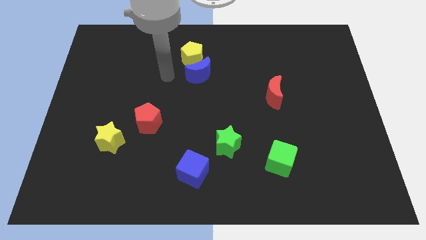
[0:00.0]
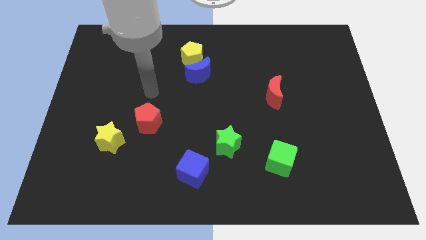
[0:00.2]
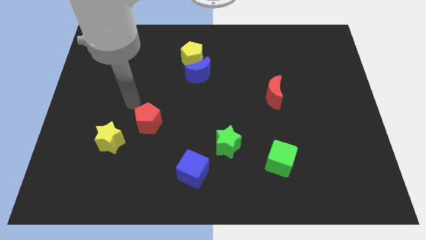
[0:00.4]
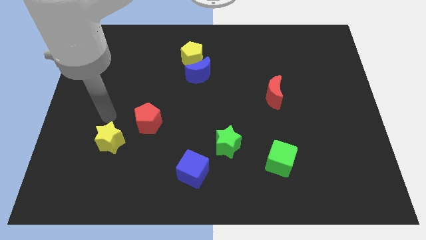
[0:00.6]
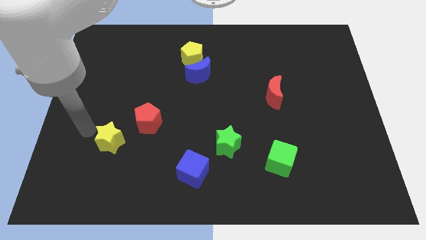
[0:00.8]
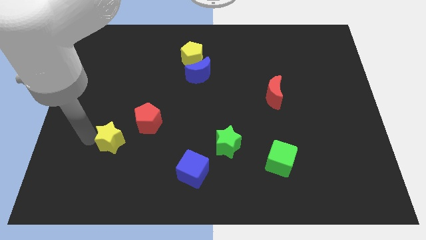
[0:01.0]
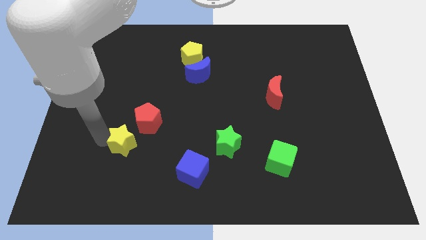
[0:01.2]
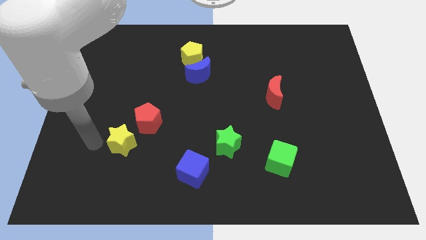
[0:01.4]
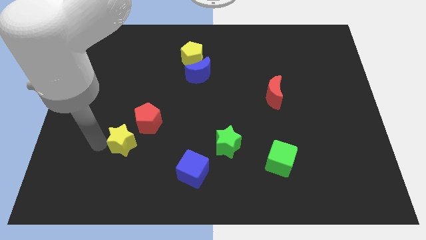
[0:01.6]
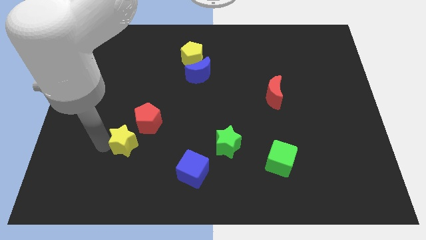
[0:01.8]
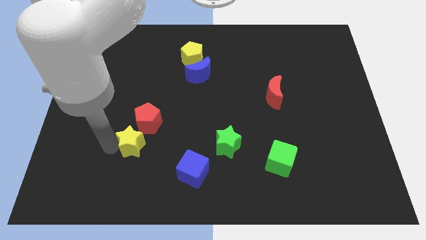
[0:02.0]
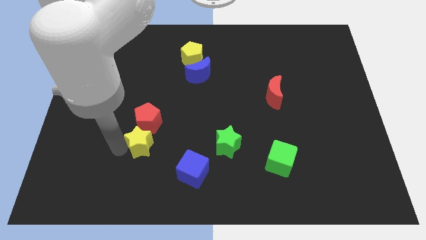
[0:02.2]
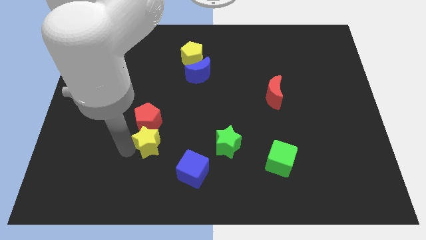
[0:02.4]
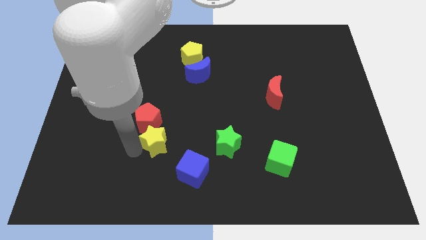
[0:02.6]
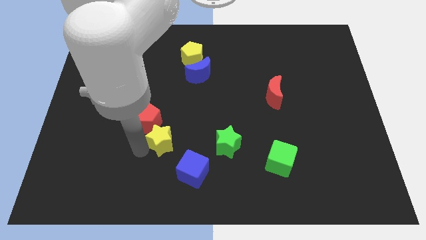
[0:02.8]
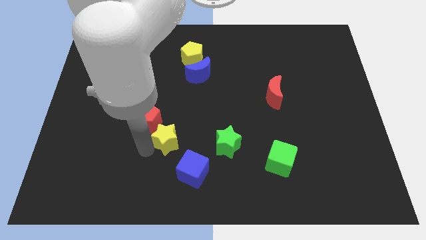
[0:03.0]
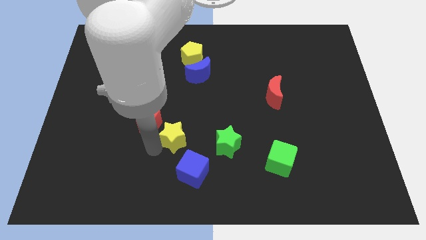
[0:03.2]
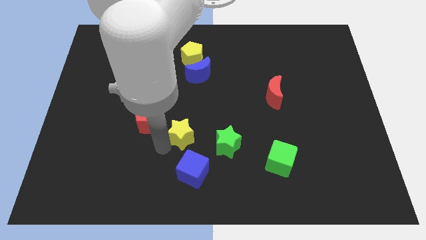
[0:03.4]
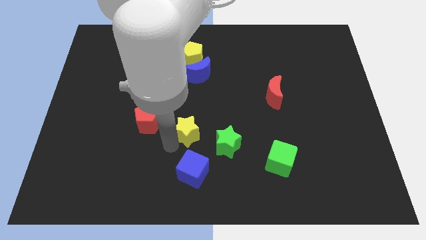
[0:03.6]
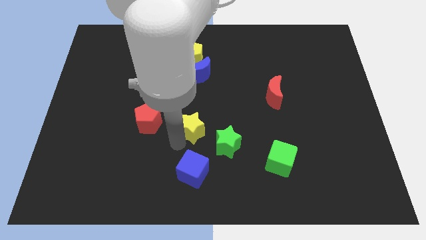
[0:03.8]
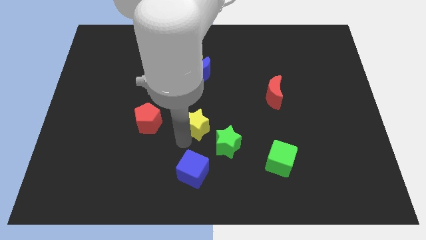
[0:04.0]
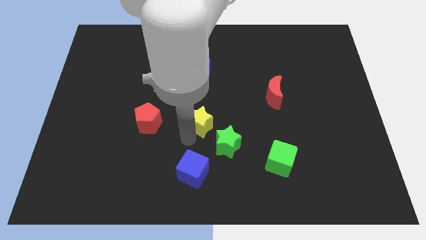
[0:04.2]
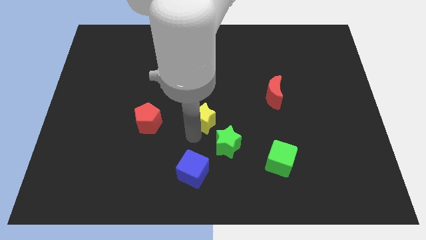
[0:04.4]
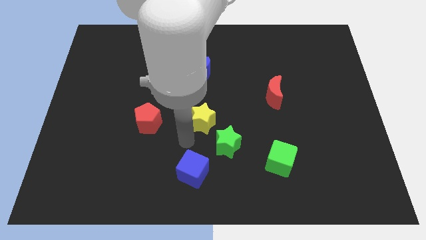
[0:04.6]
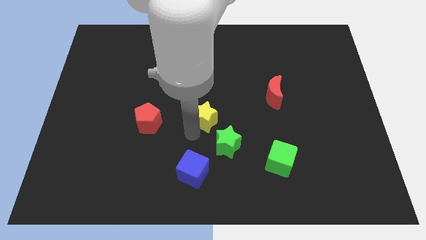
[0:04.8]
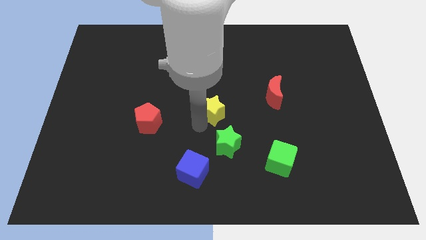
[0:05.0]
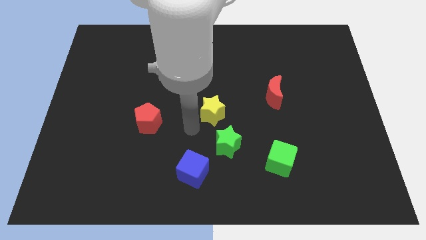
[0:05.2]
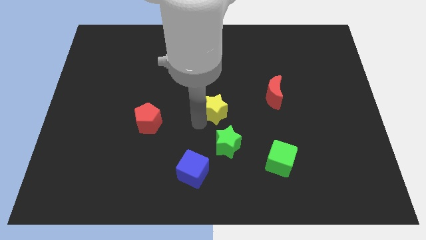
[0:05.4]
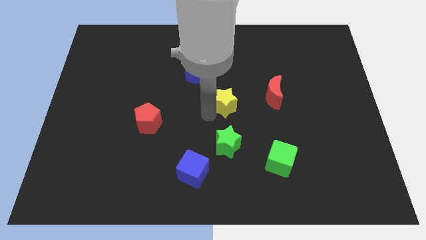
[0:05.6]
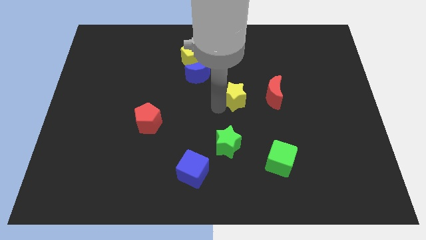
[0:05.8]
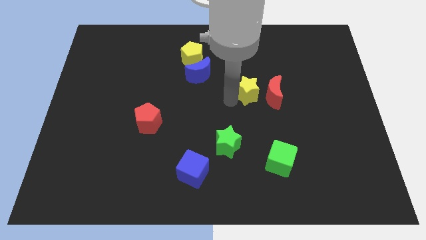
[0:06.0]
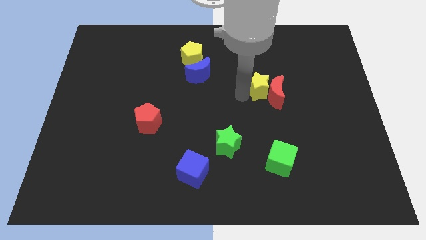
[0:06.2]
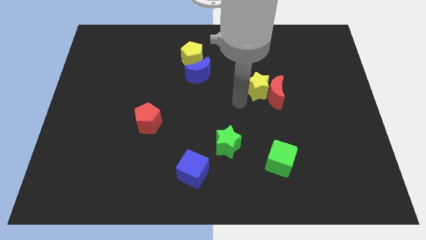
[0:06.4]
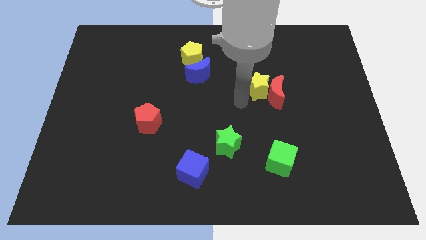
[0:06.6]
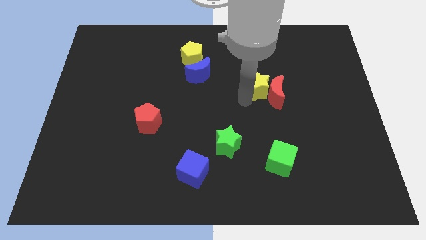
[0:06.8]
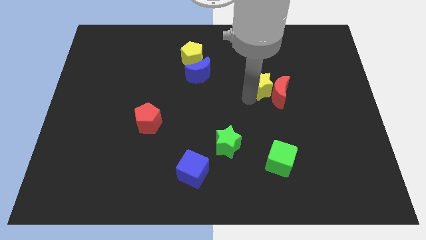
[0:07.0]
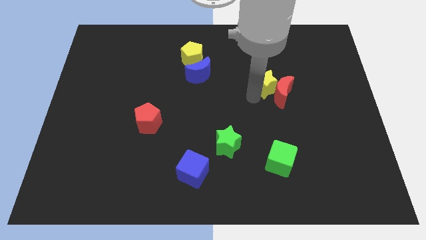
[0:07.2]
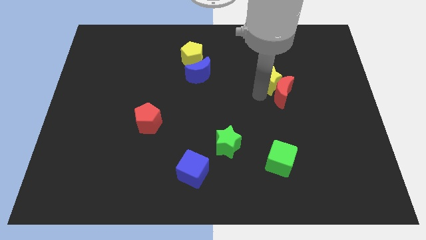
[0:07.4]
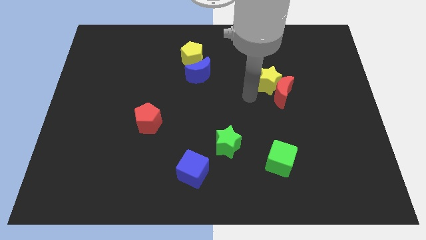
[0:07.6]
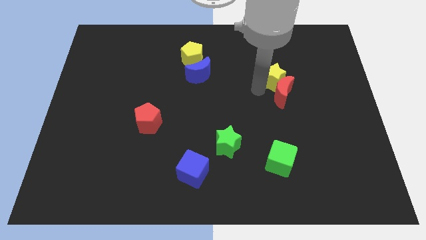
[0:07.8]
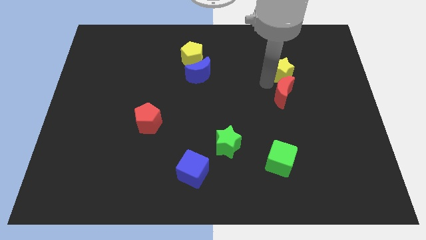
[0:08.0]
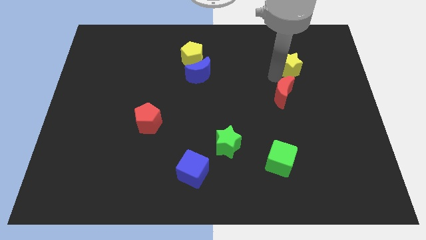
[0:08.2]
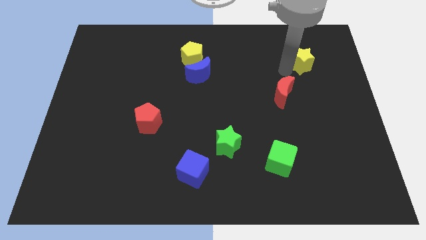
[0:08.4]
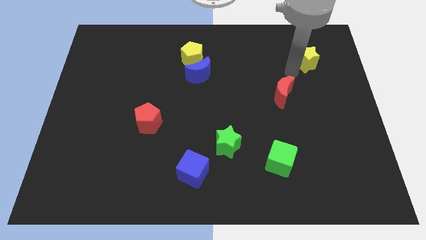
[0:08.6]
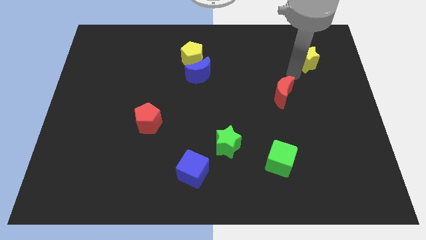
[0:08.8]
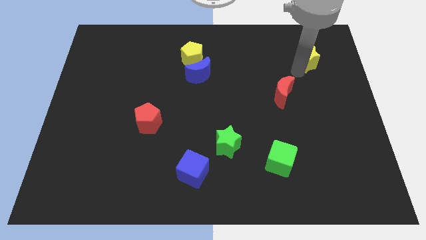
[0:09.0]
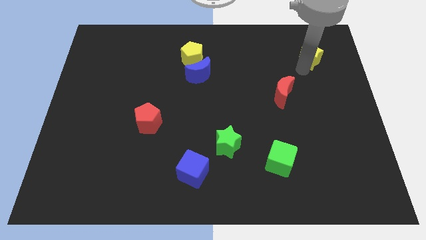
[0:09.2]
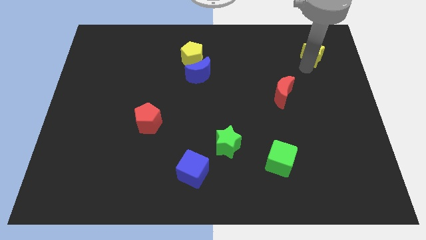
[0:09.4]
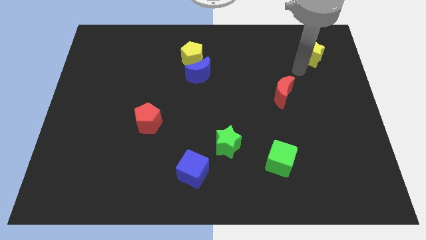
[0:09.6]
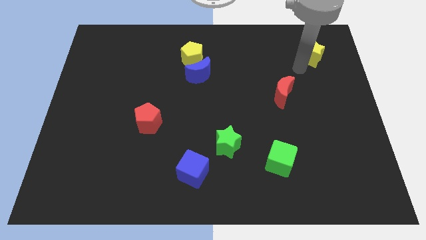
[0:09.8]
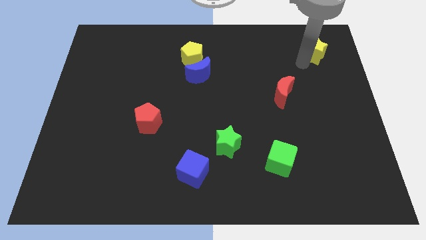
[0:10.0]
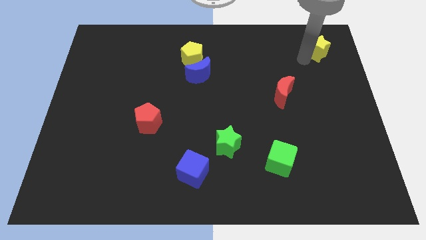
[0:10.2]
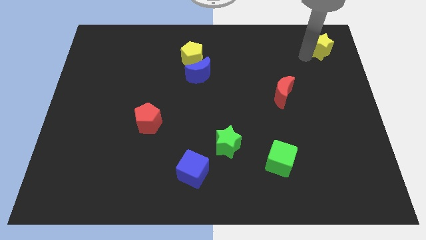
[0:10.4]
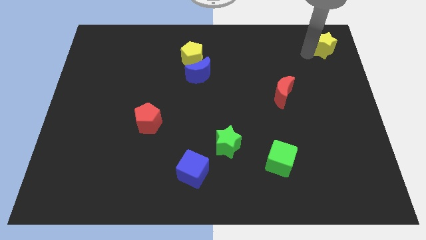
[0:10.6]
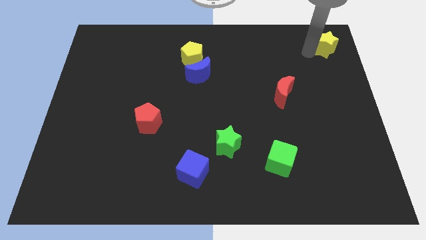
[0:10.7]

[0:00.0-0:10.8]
put the yellow star to the top right corner

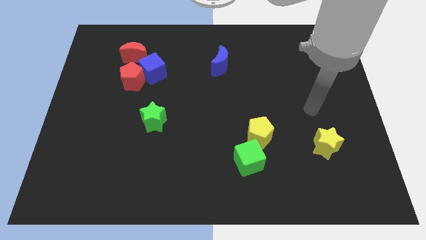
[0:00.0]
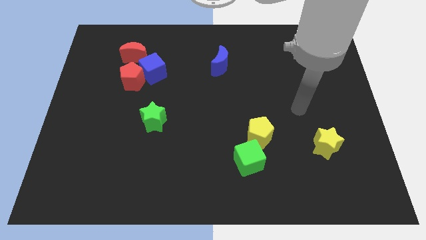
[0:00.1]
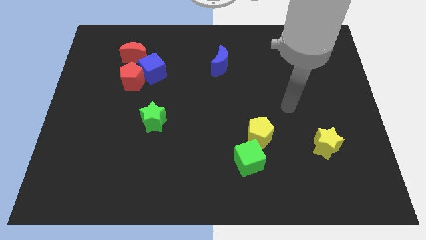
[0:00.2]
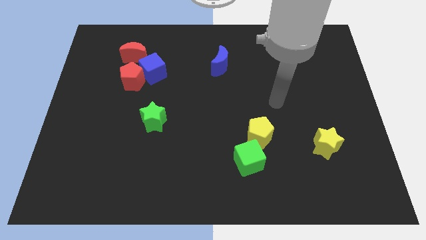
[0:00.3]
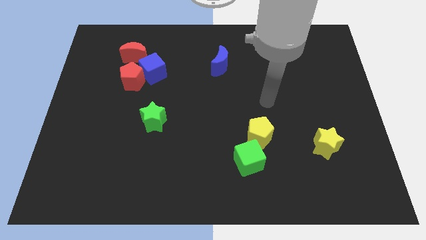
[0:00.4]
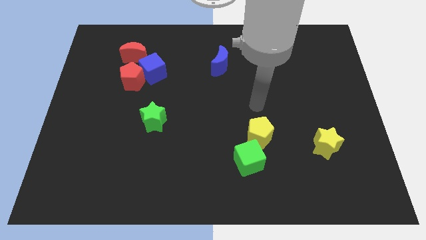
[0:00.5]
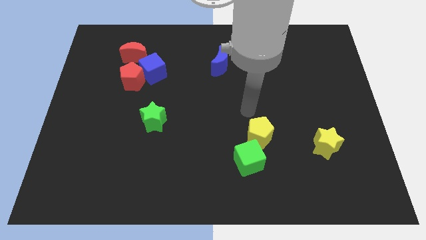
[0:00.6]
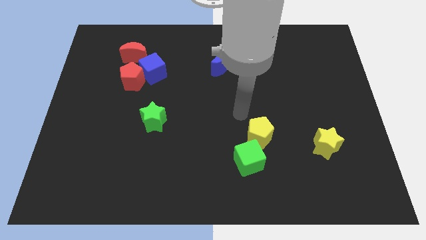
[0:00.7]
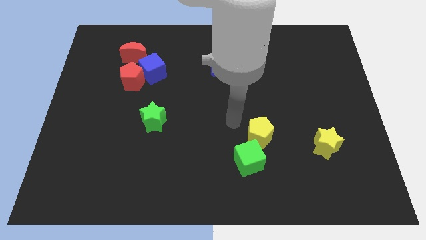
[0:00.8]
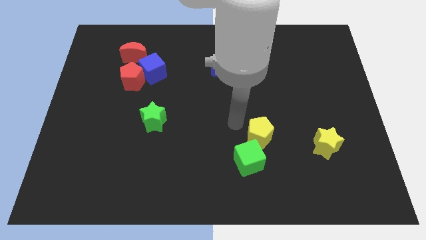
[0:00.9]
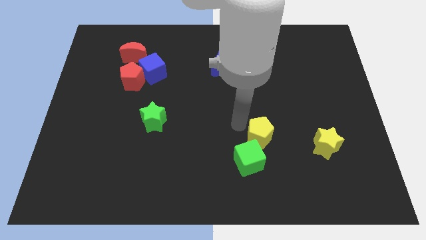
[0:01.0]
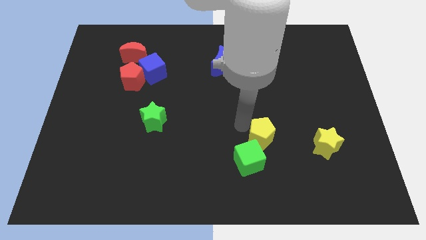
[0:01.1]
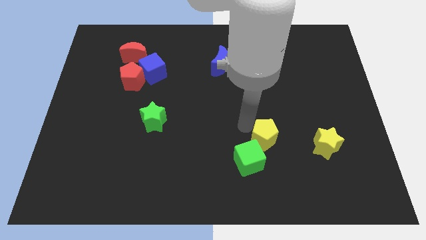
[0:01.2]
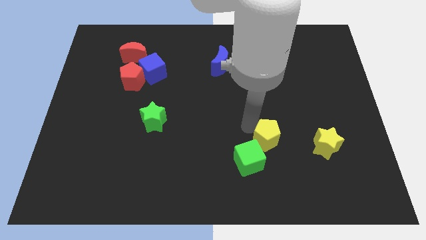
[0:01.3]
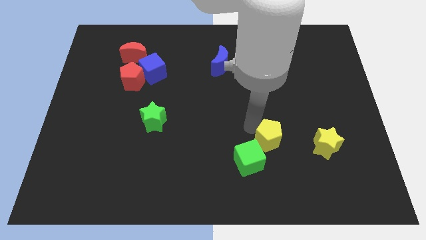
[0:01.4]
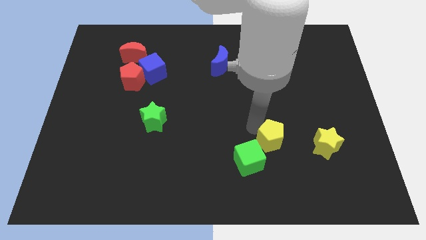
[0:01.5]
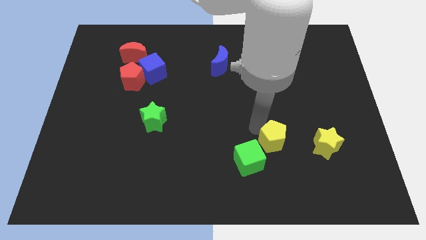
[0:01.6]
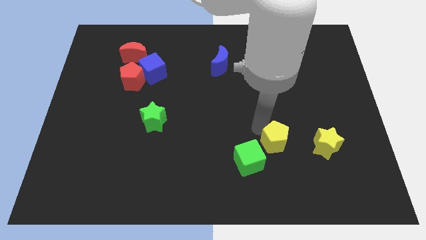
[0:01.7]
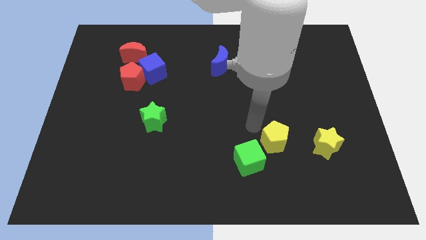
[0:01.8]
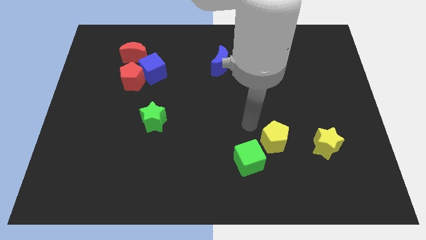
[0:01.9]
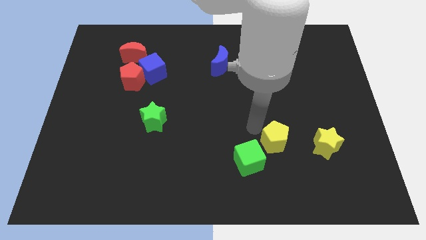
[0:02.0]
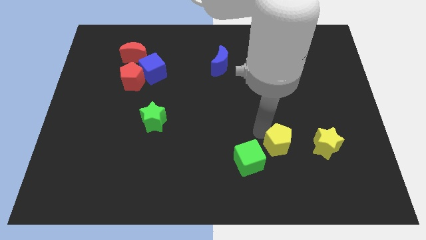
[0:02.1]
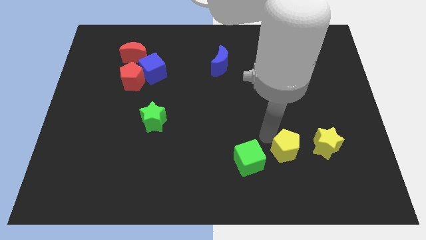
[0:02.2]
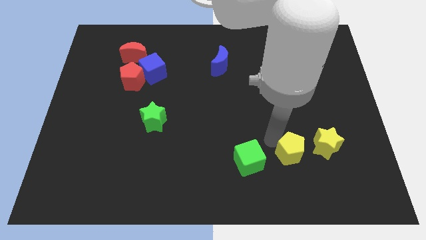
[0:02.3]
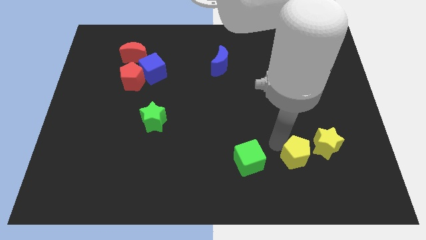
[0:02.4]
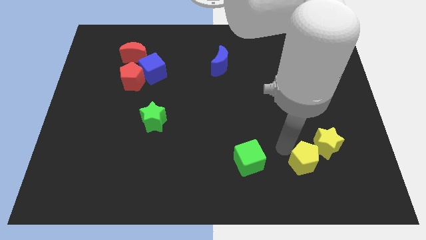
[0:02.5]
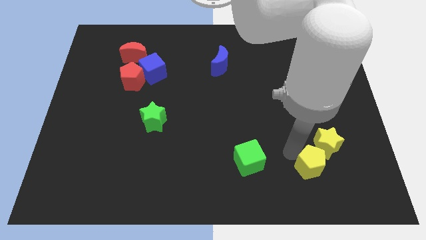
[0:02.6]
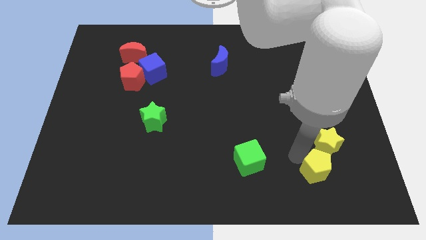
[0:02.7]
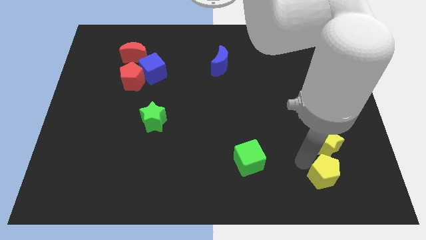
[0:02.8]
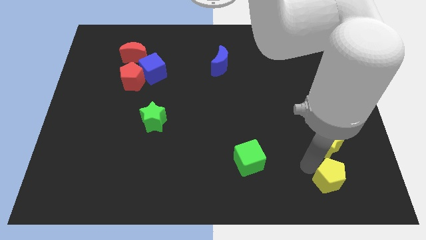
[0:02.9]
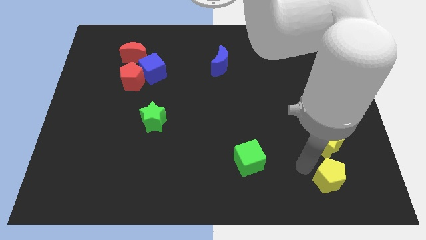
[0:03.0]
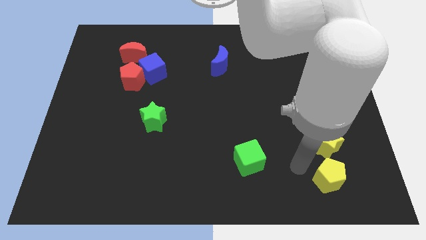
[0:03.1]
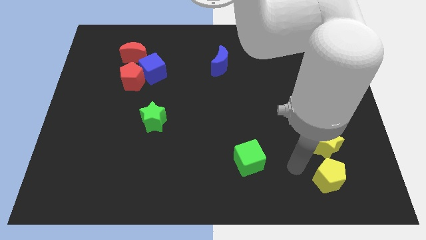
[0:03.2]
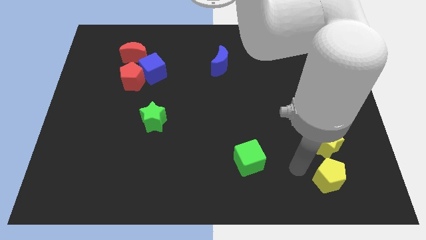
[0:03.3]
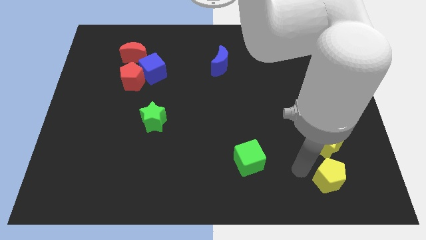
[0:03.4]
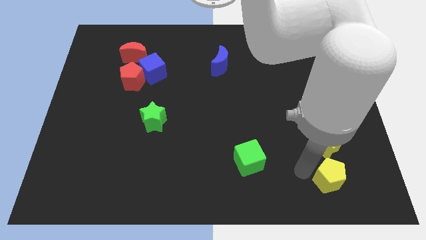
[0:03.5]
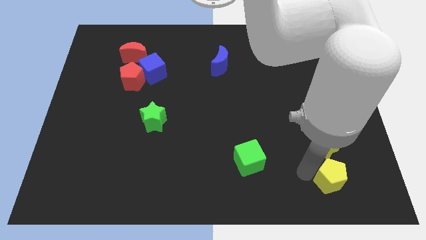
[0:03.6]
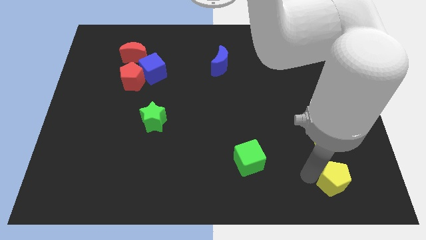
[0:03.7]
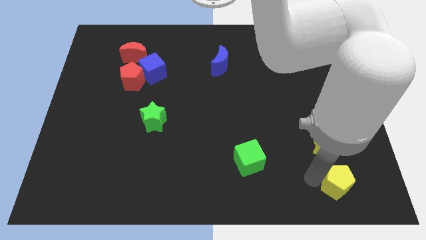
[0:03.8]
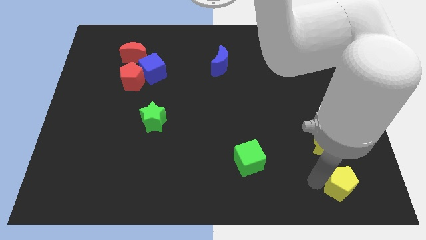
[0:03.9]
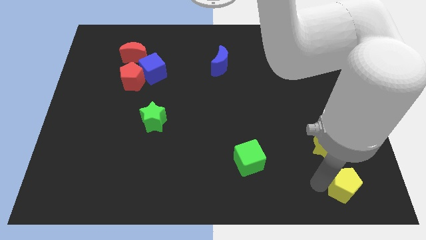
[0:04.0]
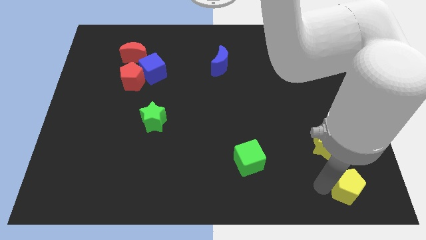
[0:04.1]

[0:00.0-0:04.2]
put the yellow pentagon to the bottom right
